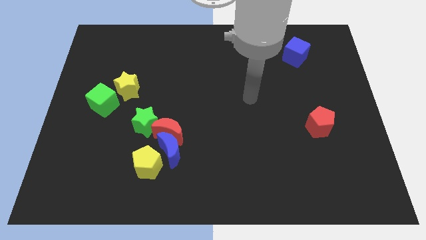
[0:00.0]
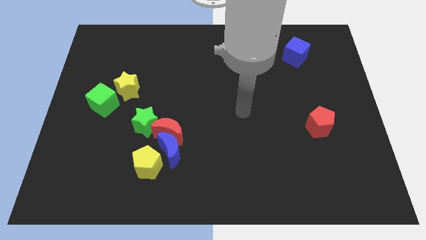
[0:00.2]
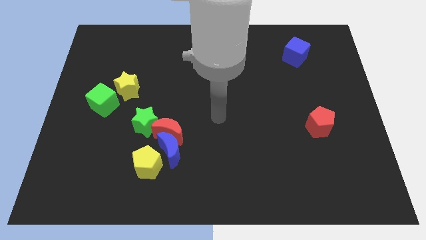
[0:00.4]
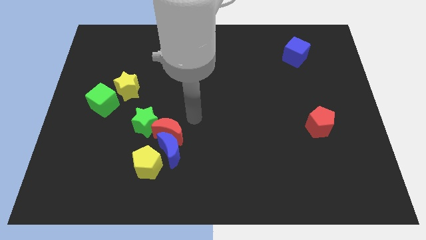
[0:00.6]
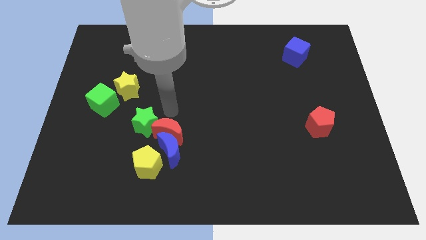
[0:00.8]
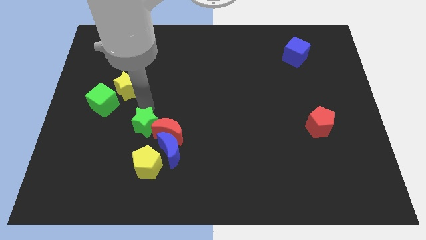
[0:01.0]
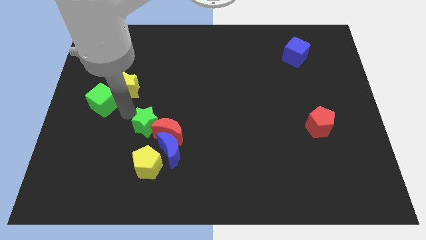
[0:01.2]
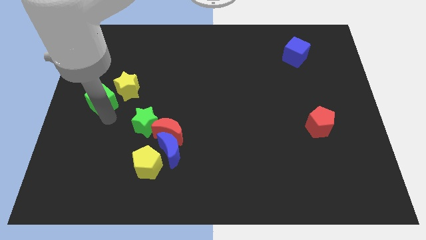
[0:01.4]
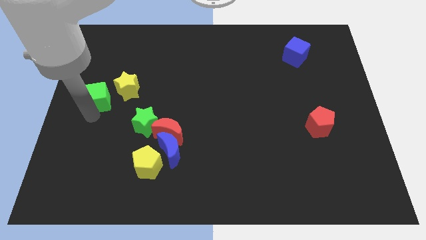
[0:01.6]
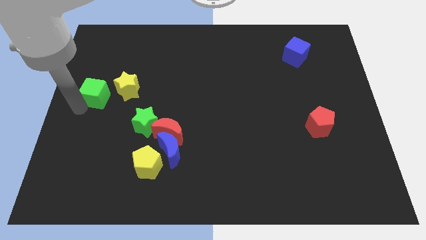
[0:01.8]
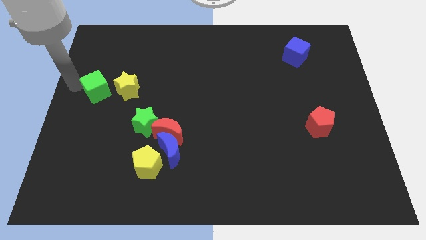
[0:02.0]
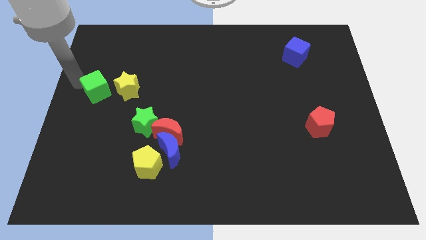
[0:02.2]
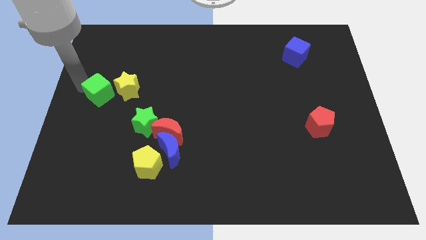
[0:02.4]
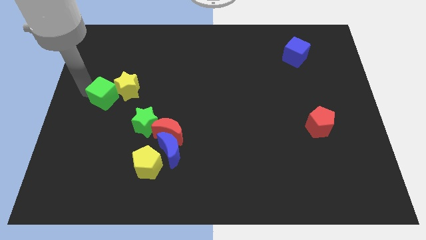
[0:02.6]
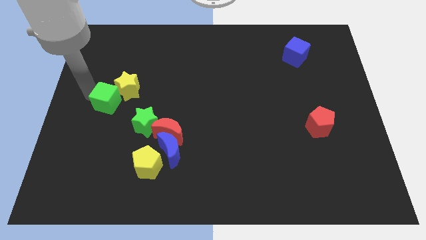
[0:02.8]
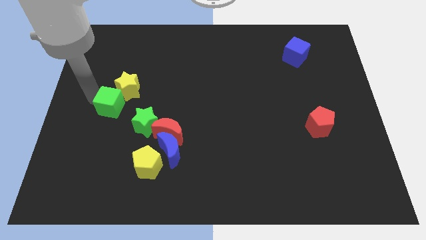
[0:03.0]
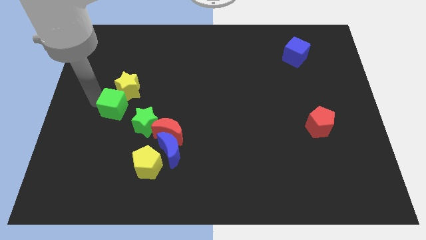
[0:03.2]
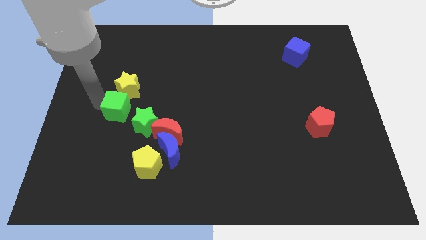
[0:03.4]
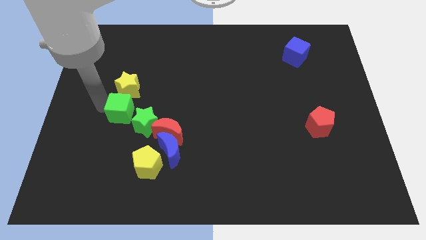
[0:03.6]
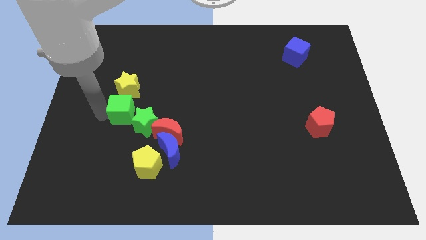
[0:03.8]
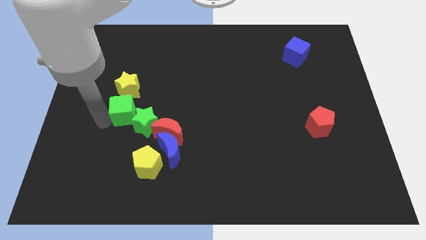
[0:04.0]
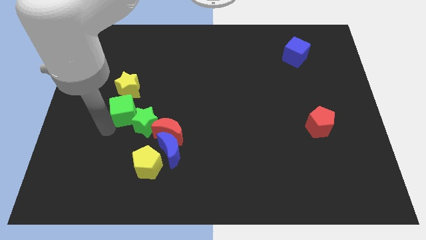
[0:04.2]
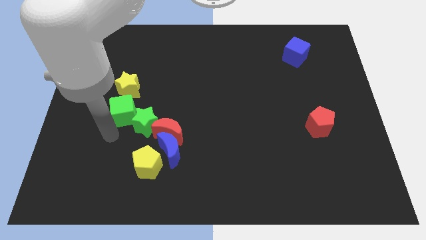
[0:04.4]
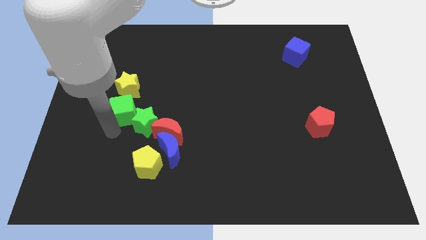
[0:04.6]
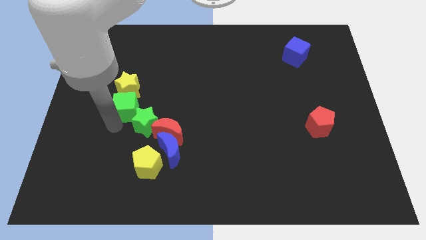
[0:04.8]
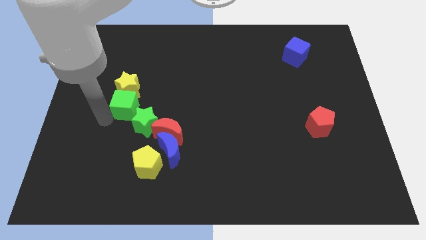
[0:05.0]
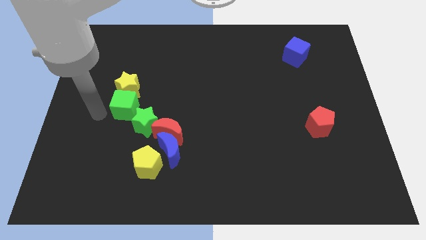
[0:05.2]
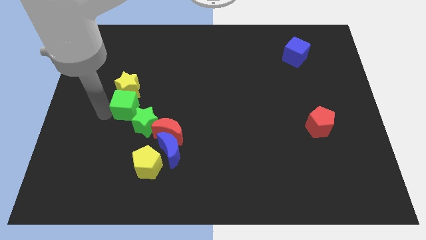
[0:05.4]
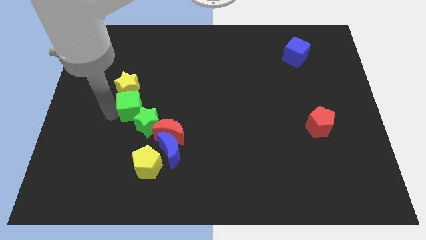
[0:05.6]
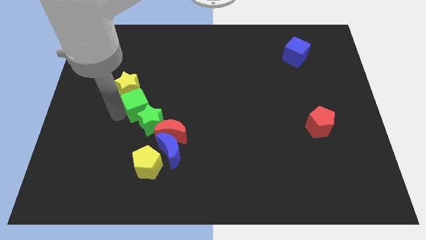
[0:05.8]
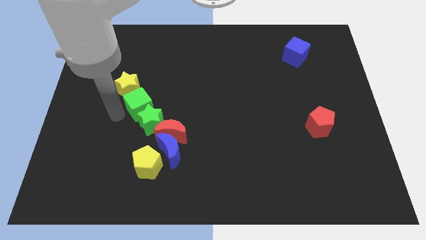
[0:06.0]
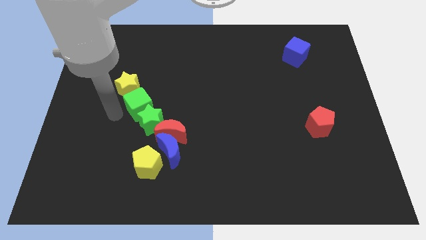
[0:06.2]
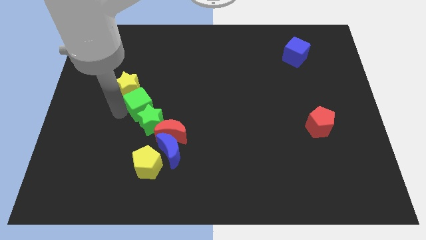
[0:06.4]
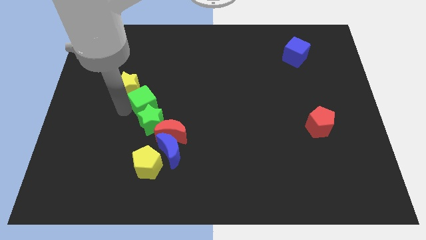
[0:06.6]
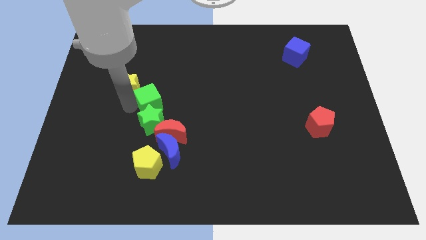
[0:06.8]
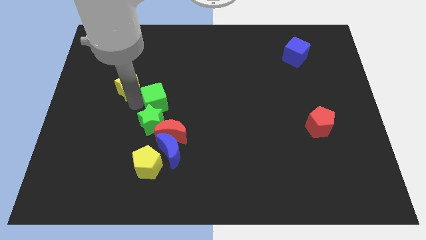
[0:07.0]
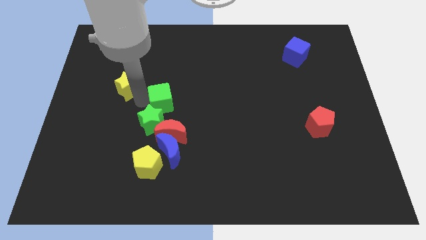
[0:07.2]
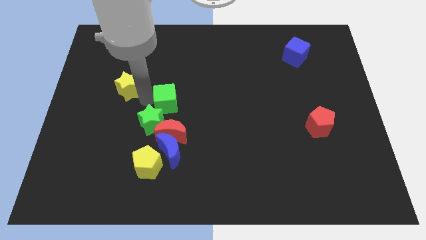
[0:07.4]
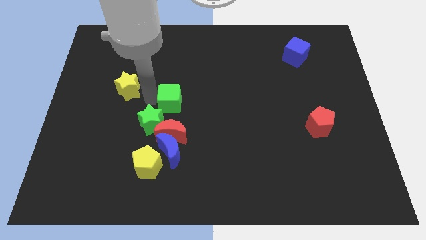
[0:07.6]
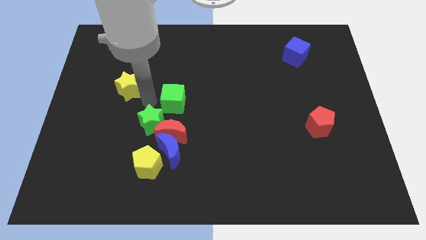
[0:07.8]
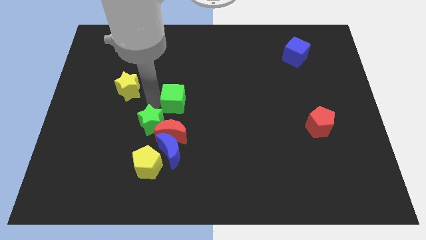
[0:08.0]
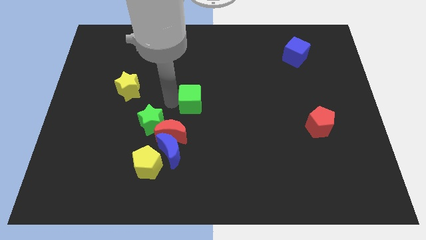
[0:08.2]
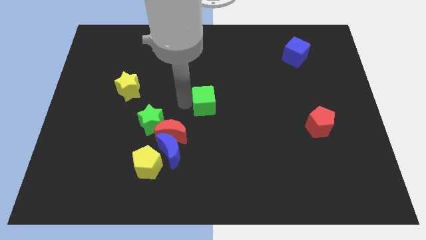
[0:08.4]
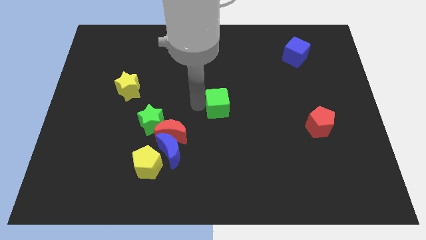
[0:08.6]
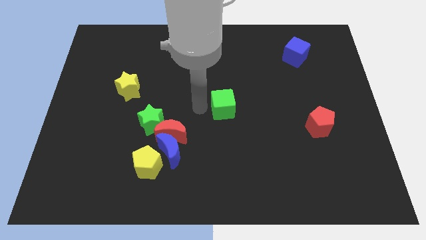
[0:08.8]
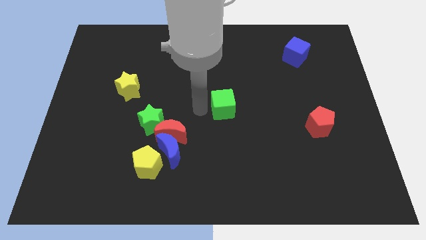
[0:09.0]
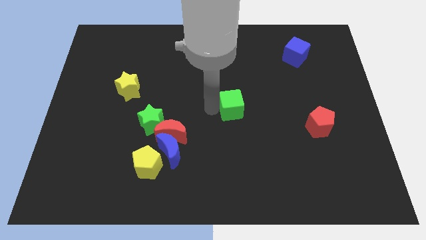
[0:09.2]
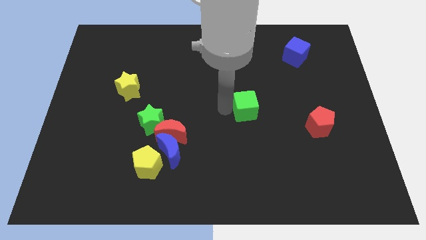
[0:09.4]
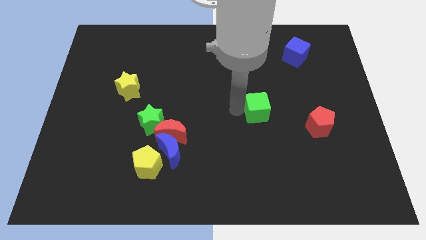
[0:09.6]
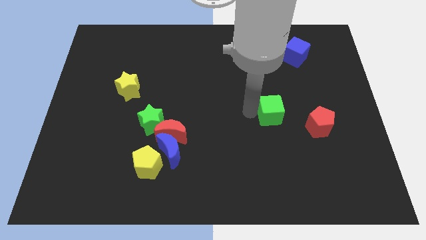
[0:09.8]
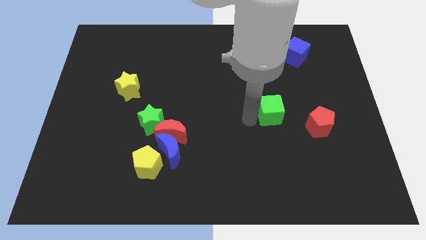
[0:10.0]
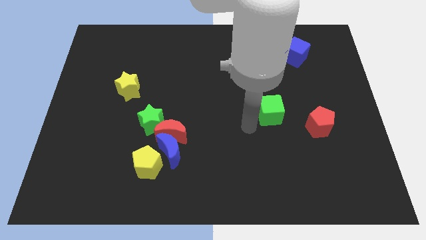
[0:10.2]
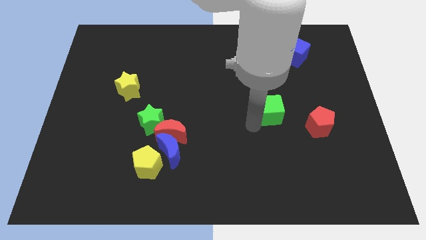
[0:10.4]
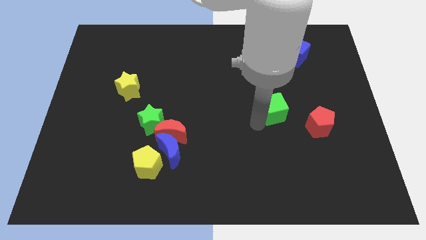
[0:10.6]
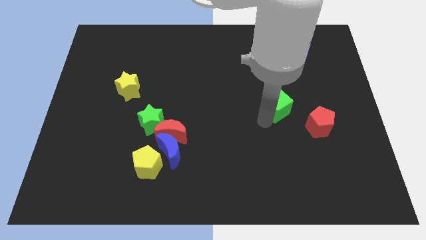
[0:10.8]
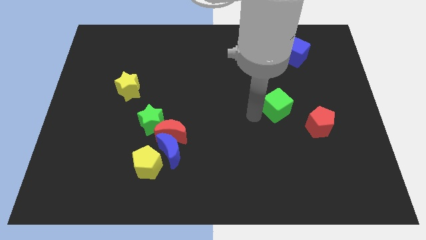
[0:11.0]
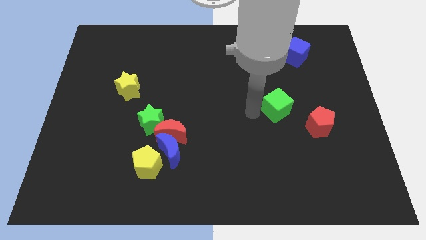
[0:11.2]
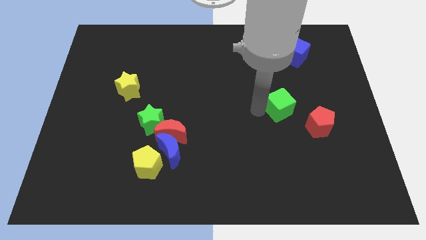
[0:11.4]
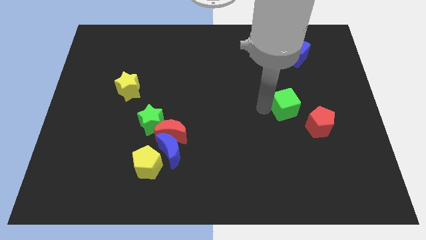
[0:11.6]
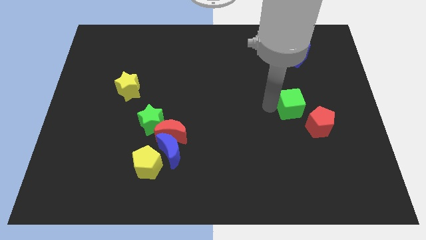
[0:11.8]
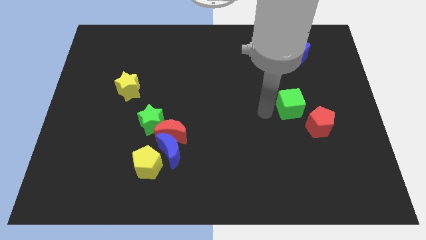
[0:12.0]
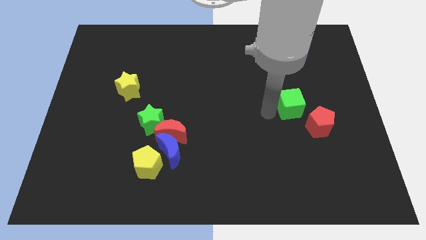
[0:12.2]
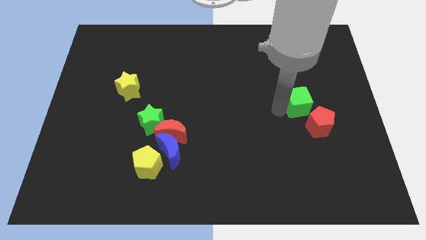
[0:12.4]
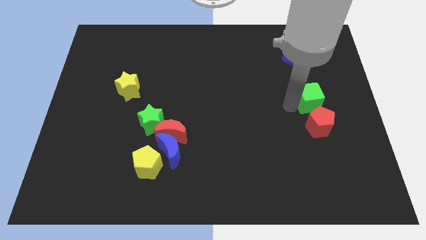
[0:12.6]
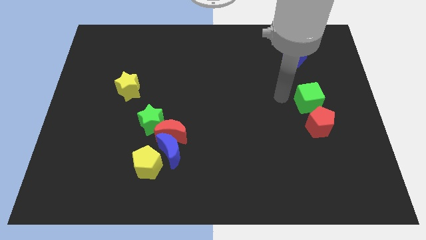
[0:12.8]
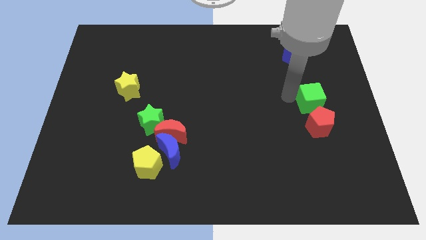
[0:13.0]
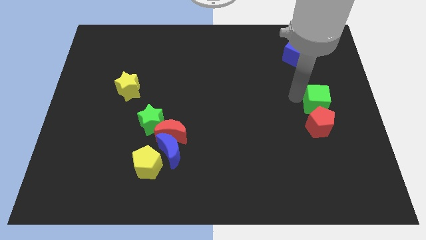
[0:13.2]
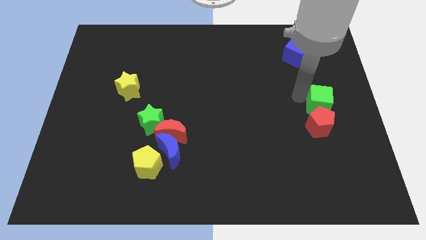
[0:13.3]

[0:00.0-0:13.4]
slide the green cube to the center right

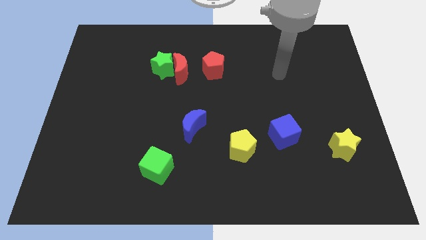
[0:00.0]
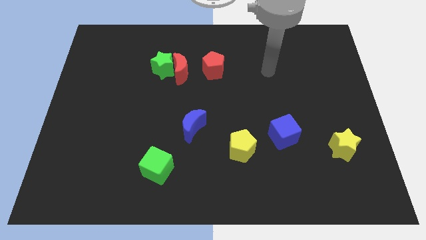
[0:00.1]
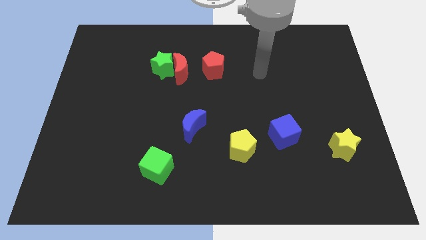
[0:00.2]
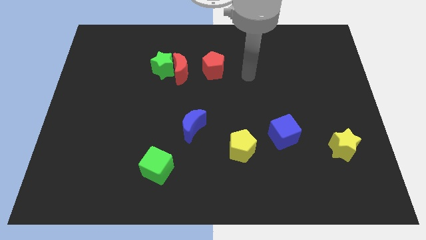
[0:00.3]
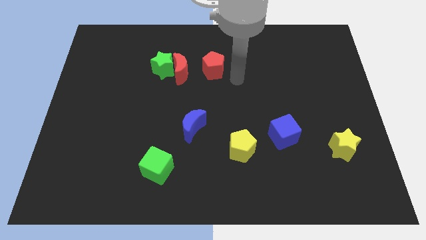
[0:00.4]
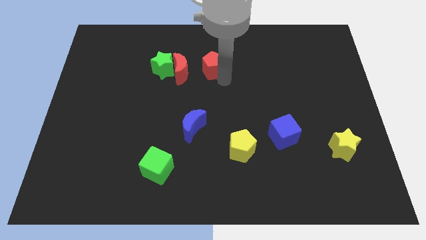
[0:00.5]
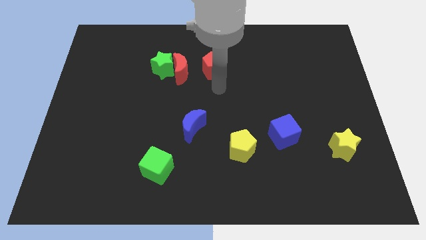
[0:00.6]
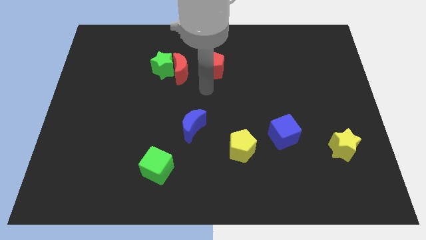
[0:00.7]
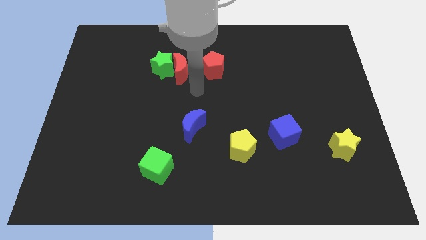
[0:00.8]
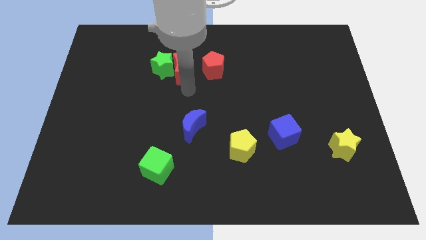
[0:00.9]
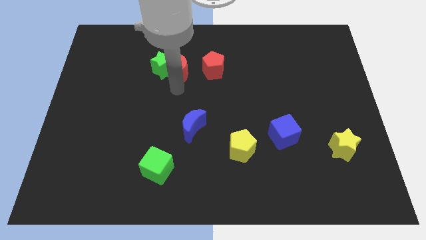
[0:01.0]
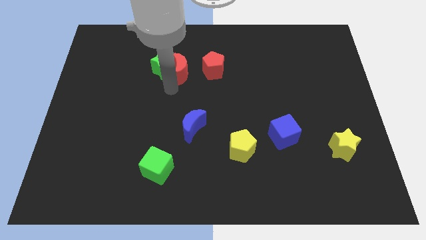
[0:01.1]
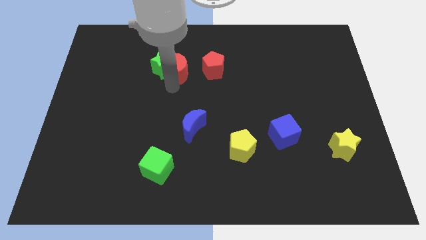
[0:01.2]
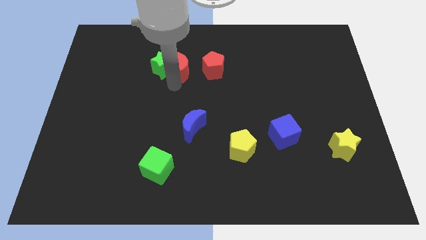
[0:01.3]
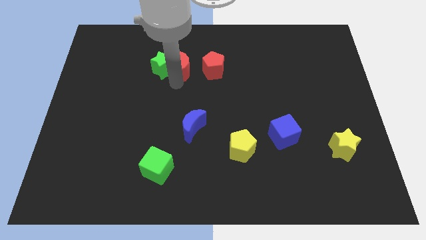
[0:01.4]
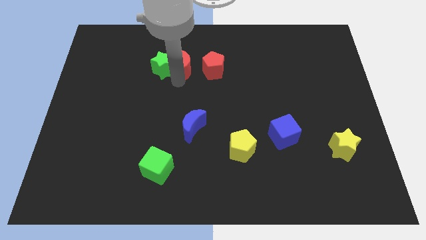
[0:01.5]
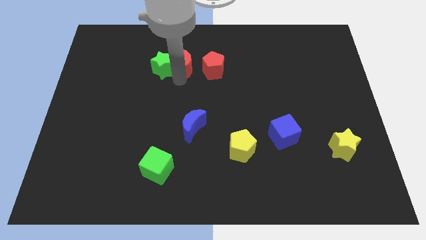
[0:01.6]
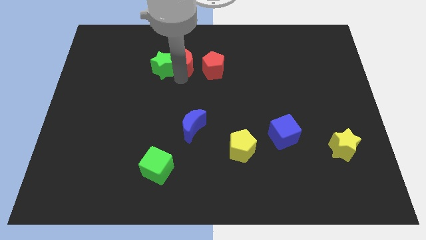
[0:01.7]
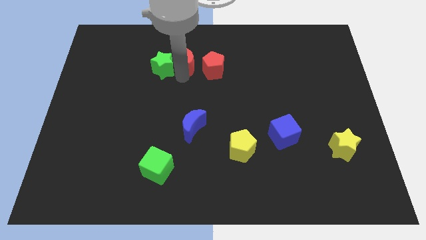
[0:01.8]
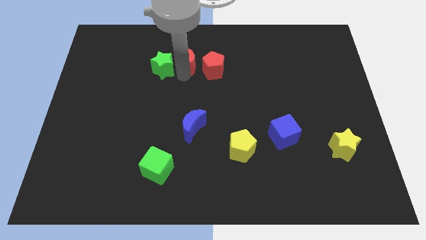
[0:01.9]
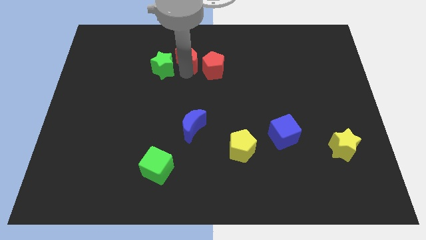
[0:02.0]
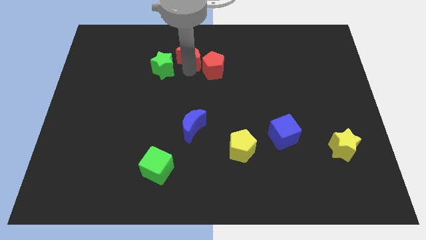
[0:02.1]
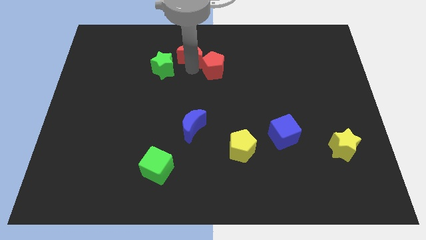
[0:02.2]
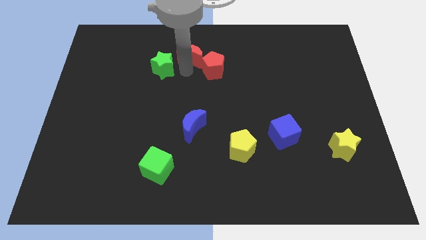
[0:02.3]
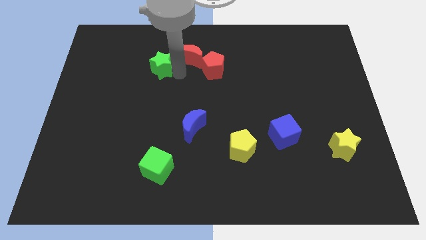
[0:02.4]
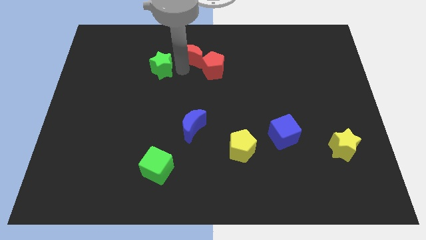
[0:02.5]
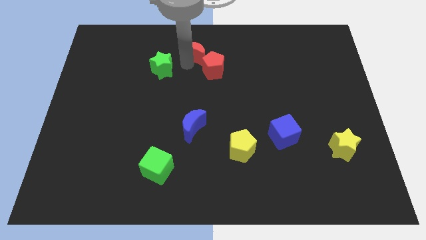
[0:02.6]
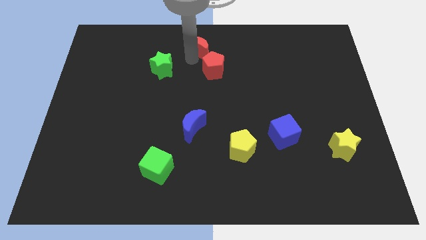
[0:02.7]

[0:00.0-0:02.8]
put the red moon to the top side
